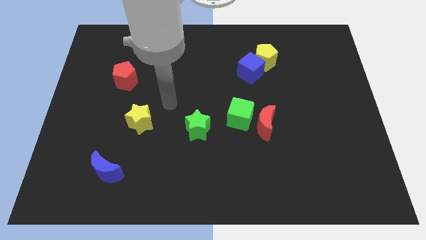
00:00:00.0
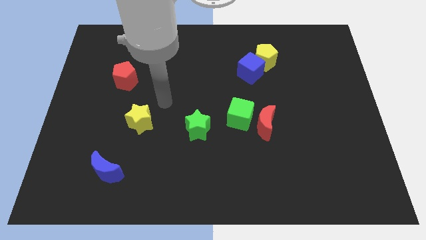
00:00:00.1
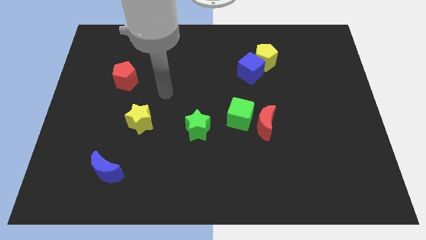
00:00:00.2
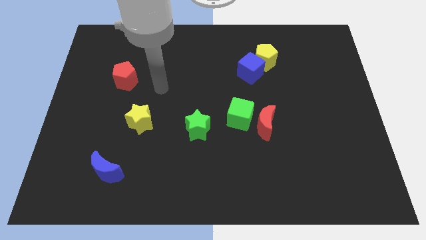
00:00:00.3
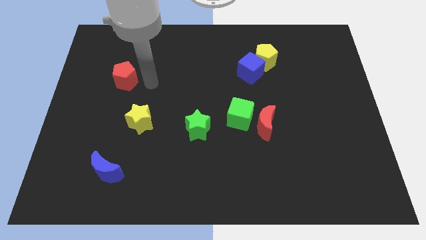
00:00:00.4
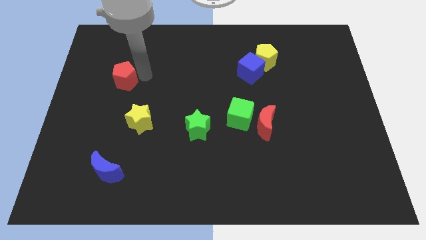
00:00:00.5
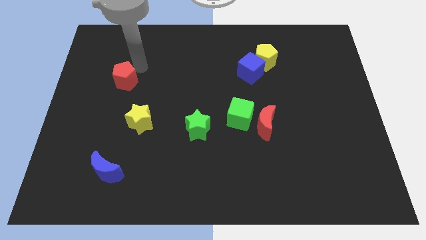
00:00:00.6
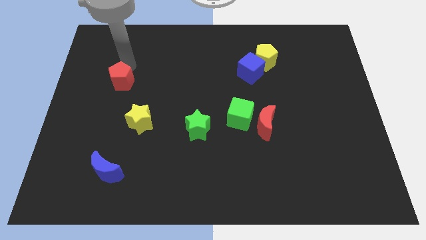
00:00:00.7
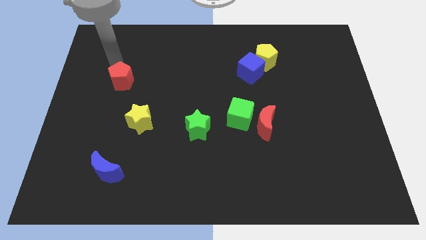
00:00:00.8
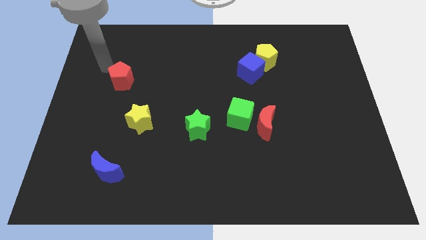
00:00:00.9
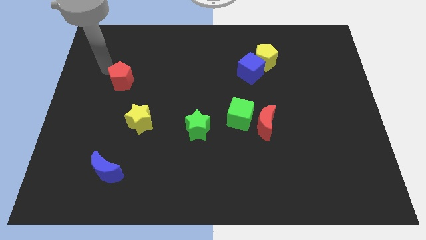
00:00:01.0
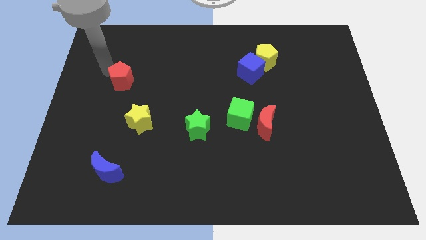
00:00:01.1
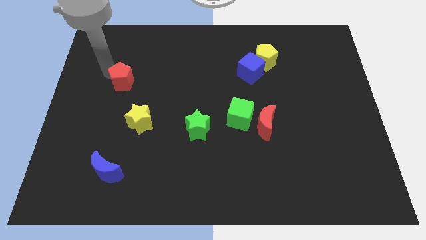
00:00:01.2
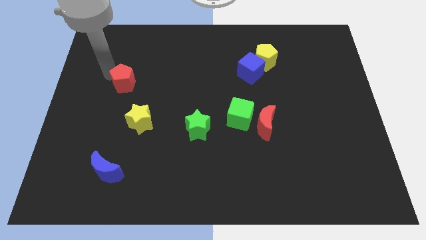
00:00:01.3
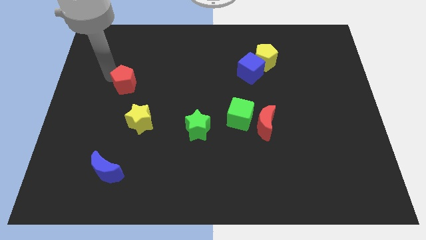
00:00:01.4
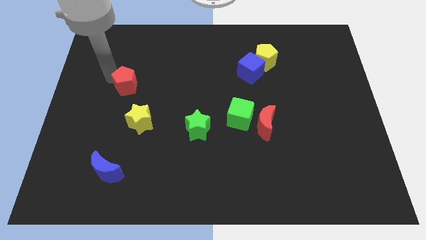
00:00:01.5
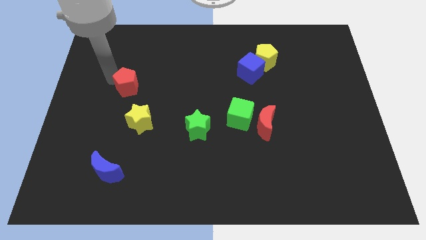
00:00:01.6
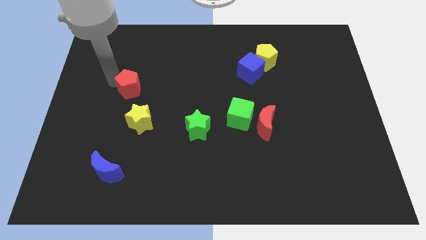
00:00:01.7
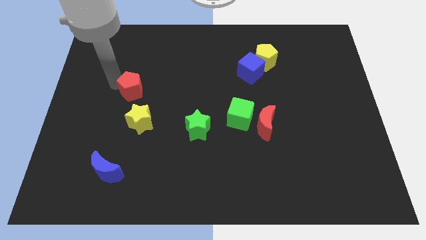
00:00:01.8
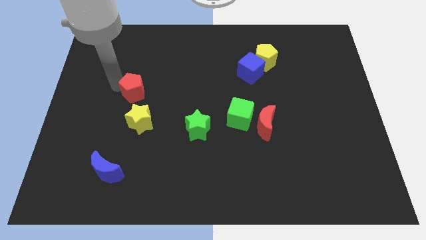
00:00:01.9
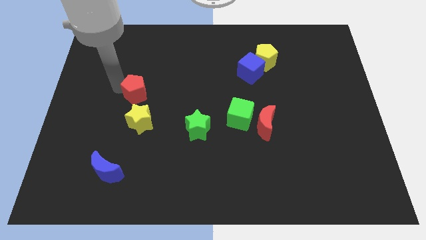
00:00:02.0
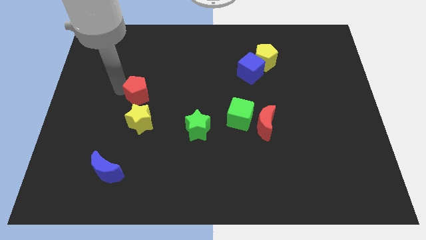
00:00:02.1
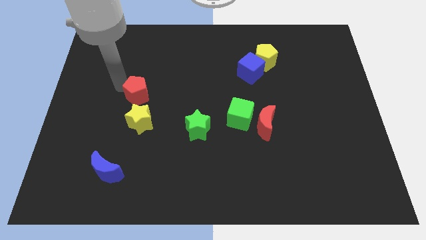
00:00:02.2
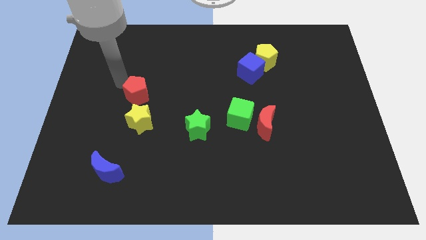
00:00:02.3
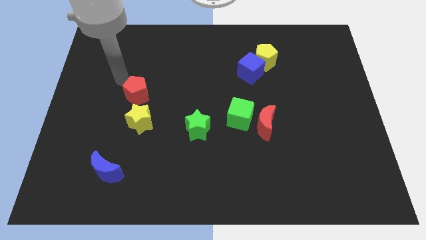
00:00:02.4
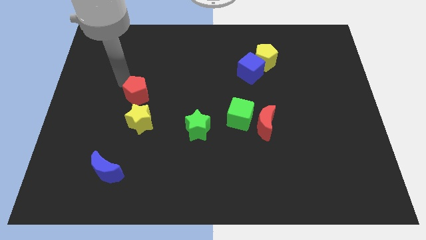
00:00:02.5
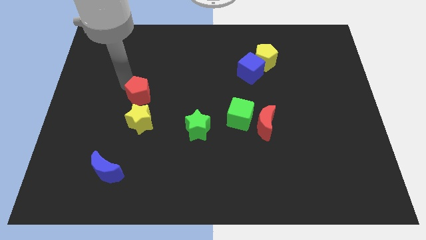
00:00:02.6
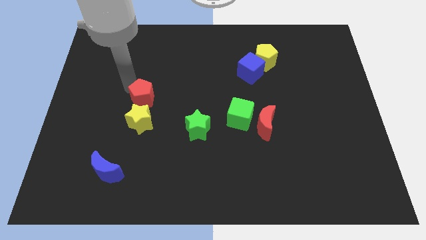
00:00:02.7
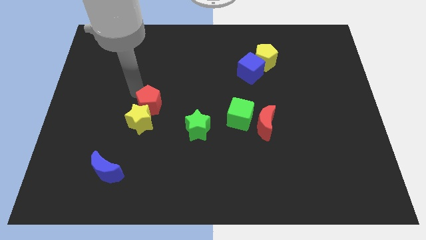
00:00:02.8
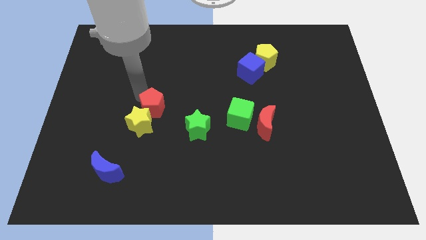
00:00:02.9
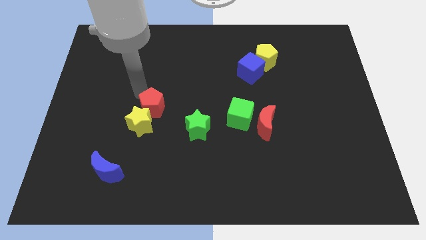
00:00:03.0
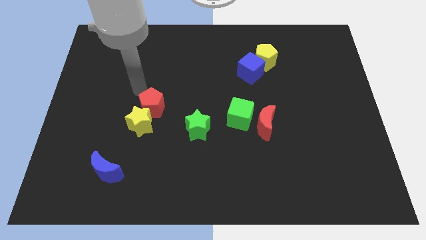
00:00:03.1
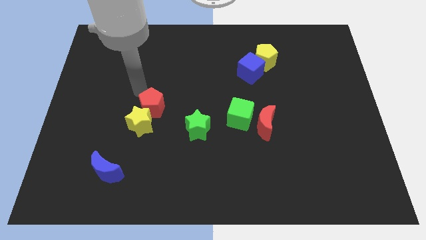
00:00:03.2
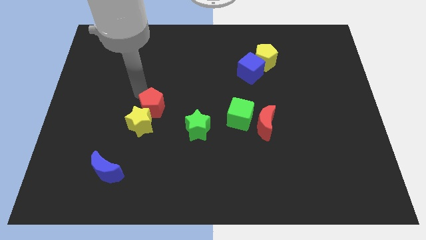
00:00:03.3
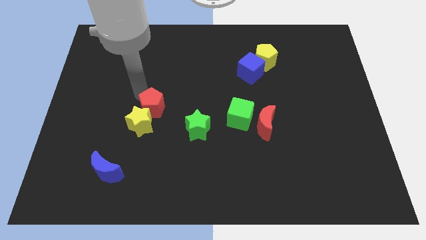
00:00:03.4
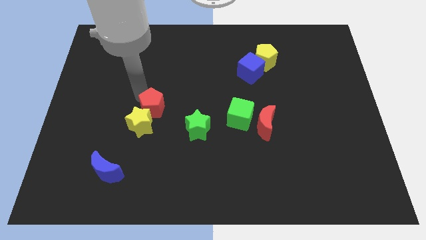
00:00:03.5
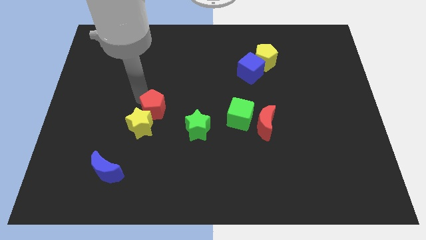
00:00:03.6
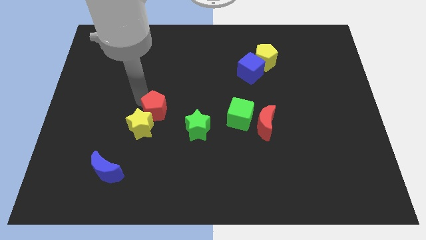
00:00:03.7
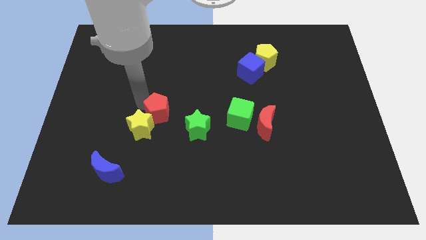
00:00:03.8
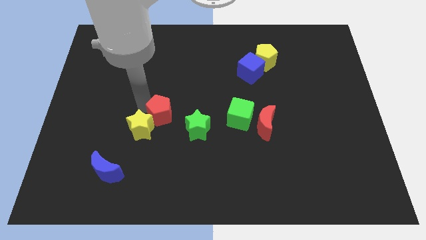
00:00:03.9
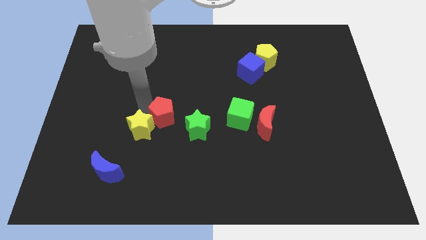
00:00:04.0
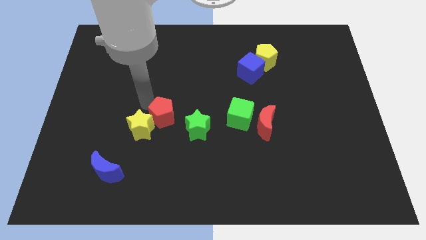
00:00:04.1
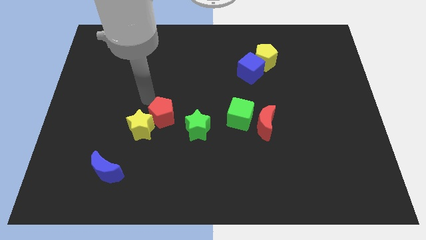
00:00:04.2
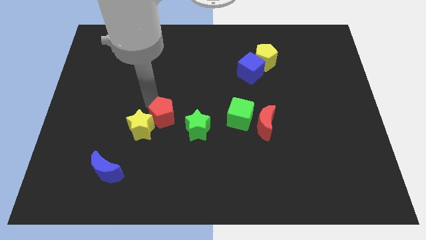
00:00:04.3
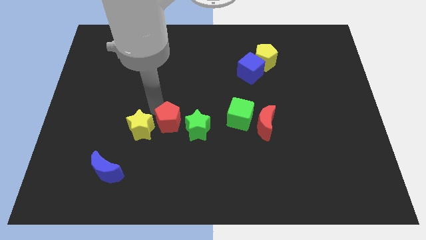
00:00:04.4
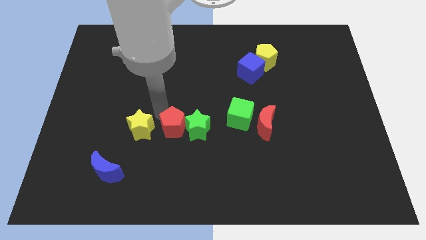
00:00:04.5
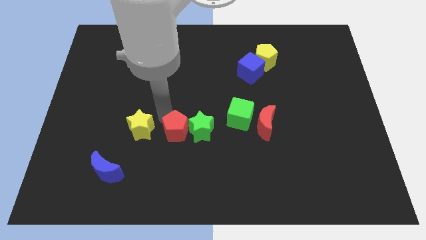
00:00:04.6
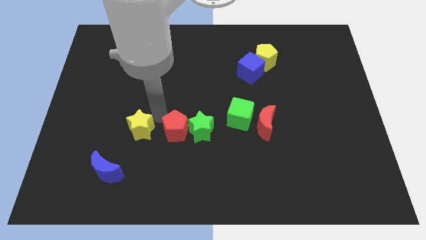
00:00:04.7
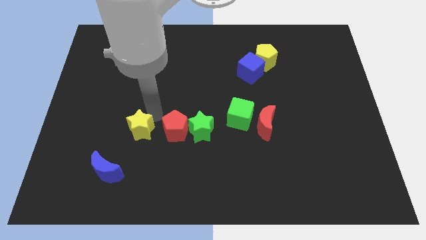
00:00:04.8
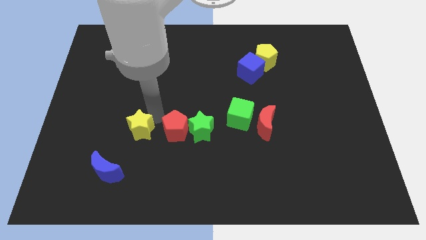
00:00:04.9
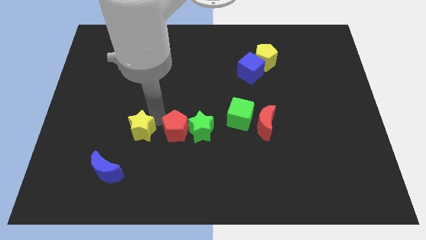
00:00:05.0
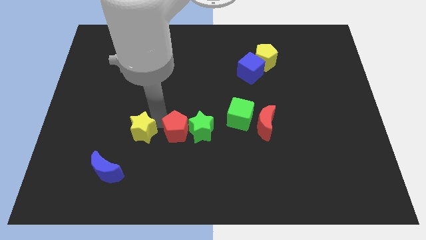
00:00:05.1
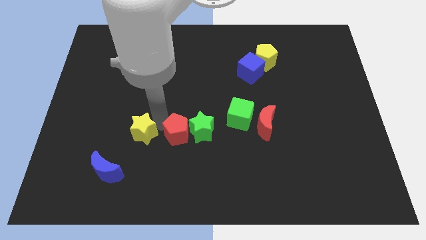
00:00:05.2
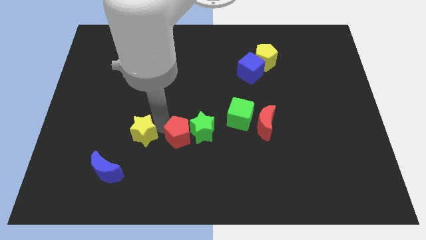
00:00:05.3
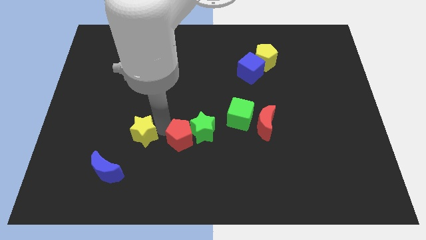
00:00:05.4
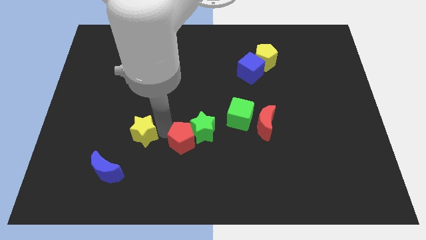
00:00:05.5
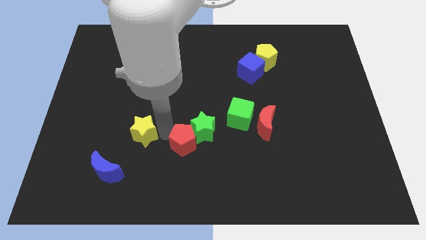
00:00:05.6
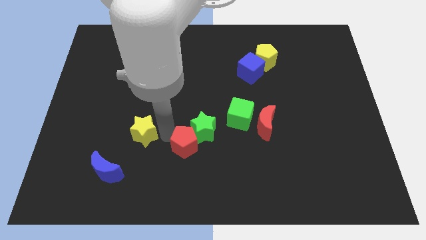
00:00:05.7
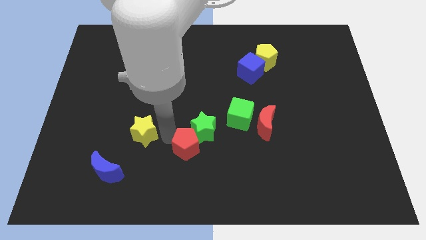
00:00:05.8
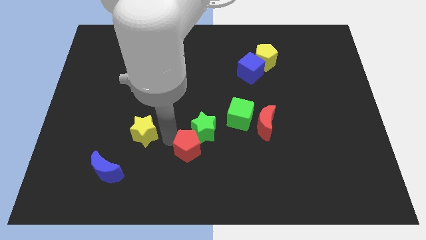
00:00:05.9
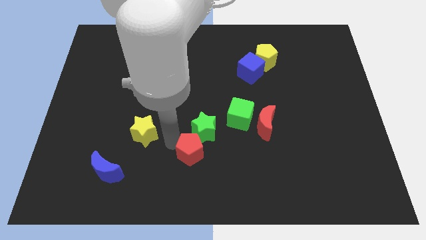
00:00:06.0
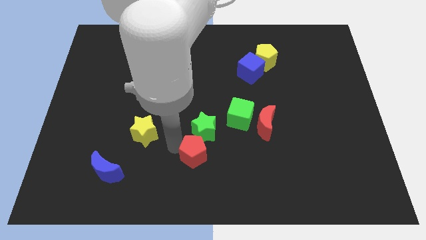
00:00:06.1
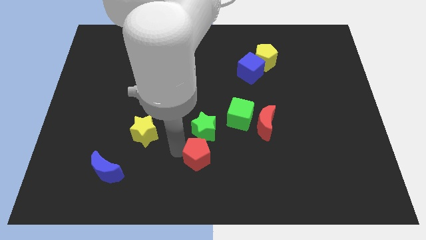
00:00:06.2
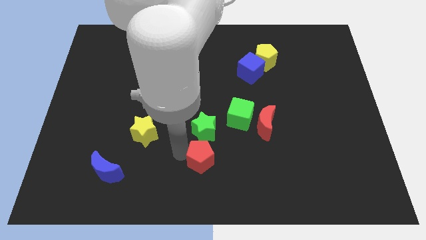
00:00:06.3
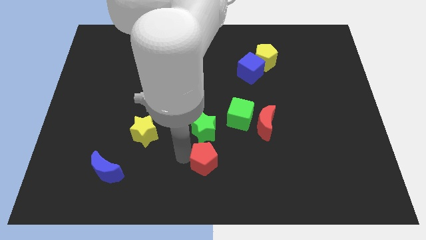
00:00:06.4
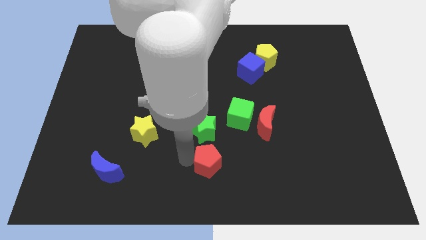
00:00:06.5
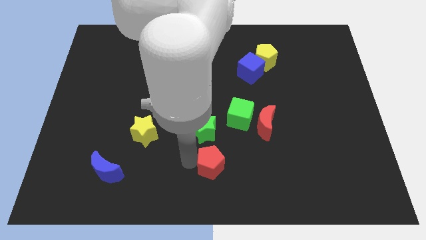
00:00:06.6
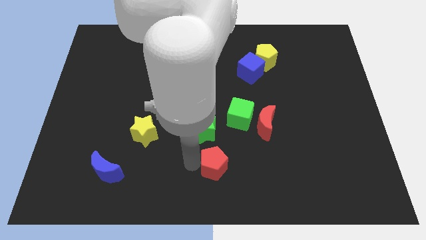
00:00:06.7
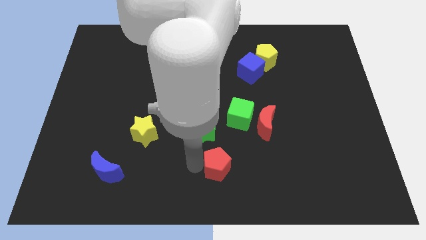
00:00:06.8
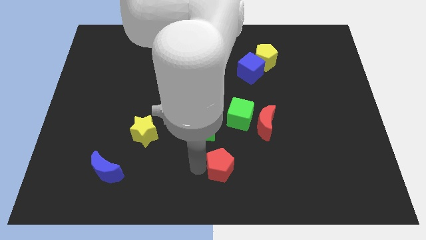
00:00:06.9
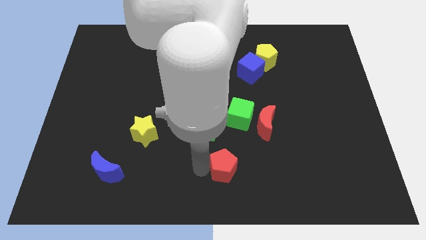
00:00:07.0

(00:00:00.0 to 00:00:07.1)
put the red pentagon to the bottom side of the green cube

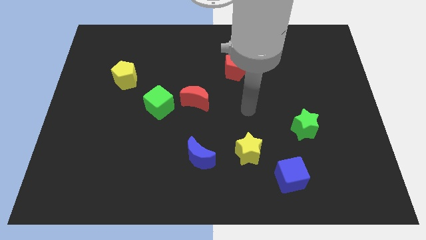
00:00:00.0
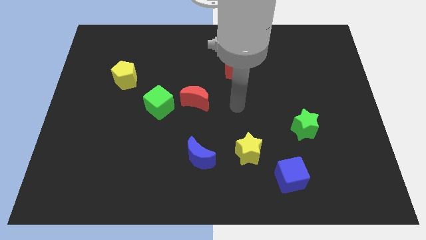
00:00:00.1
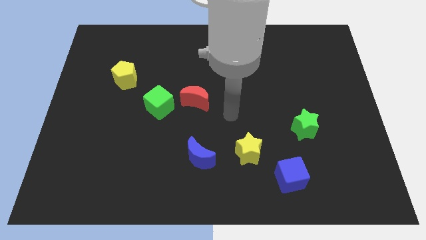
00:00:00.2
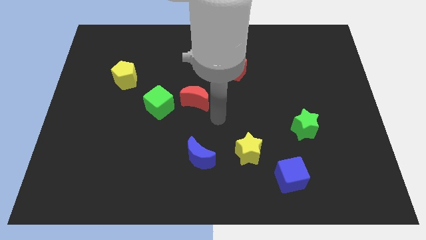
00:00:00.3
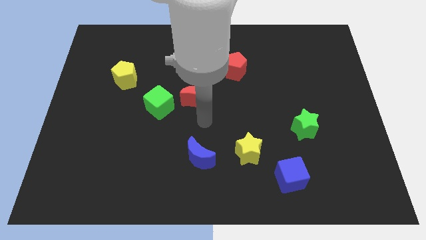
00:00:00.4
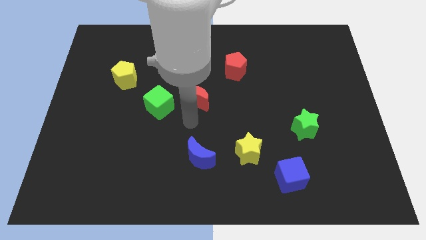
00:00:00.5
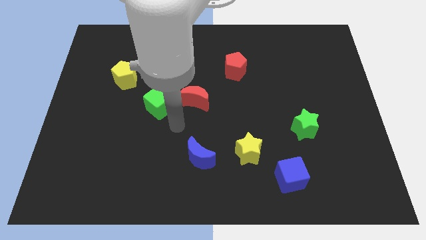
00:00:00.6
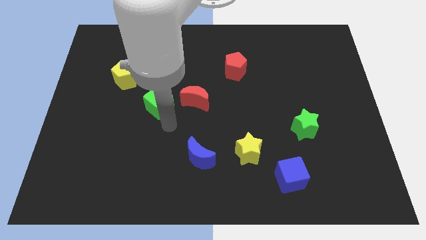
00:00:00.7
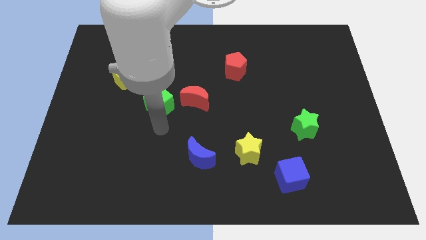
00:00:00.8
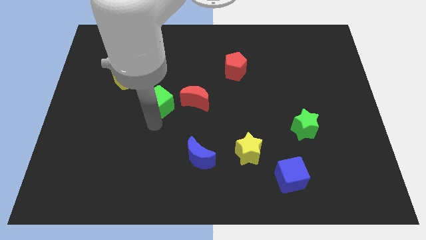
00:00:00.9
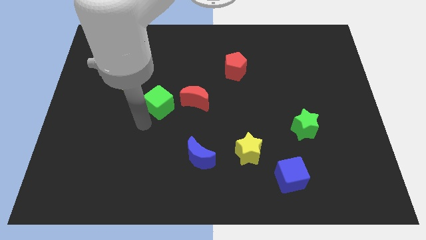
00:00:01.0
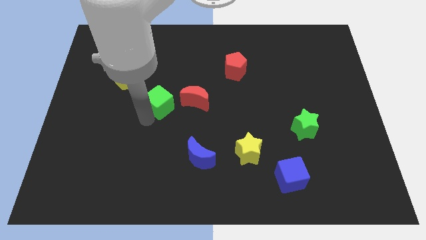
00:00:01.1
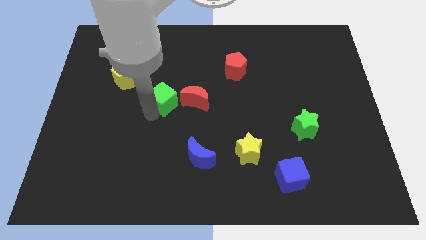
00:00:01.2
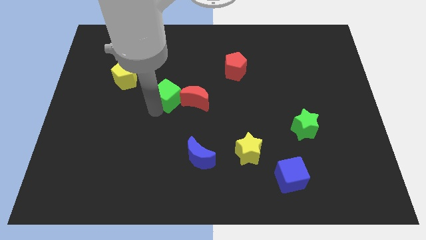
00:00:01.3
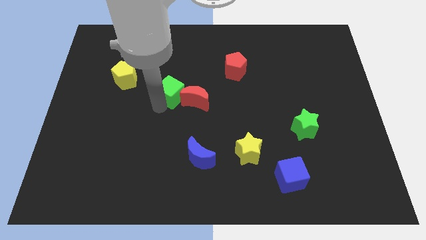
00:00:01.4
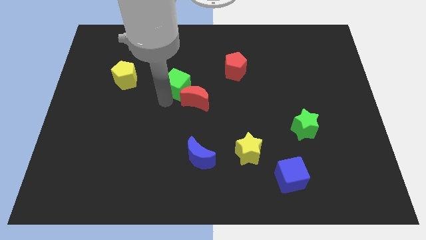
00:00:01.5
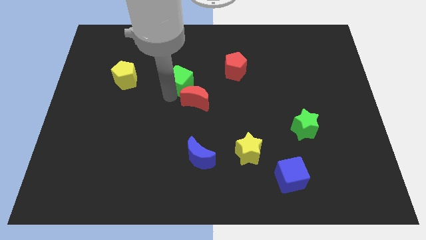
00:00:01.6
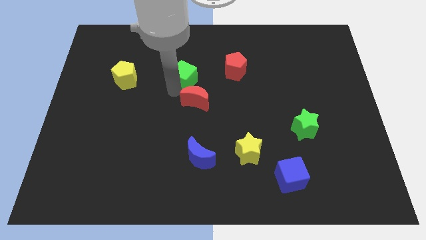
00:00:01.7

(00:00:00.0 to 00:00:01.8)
slide the green cube just left of the red pentagon
